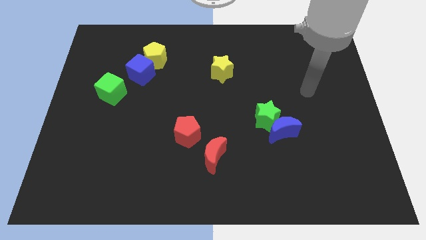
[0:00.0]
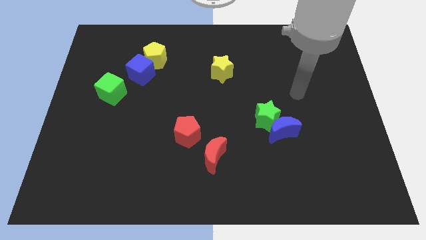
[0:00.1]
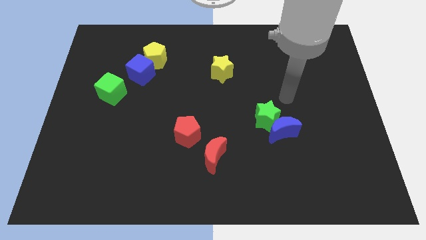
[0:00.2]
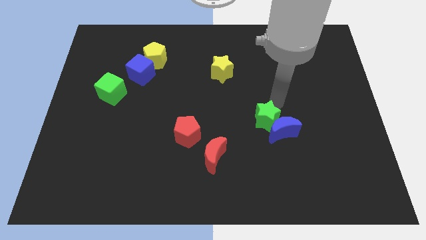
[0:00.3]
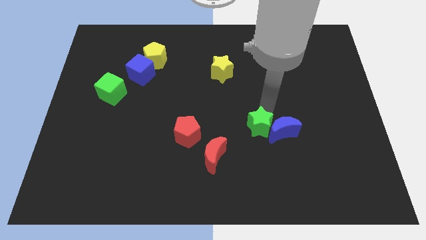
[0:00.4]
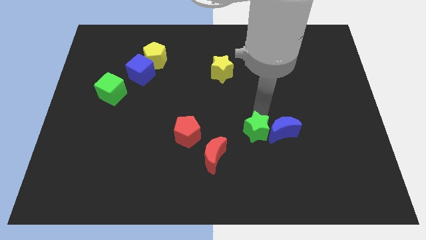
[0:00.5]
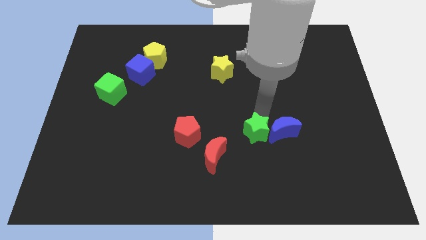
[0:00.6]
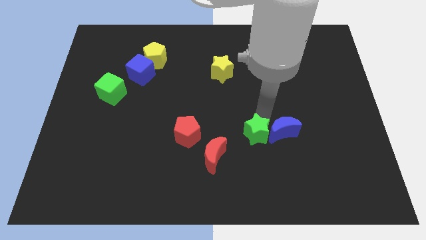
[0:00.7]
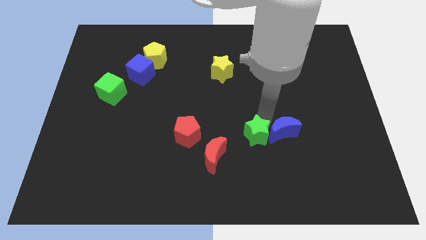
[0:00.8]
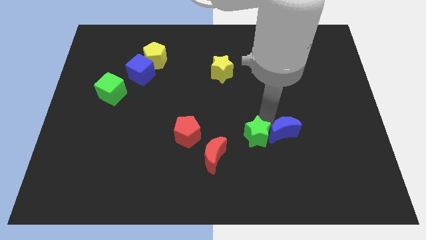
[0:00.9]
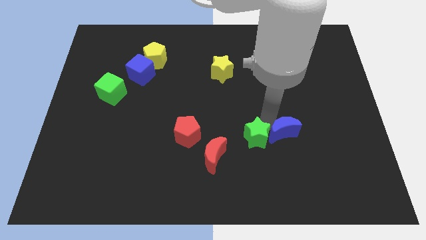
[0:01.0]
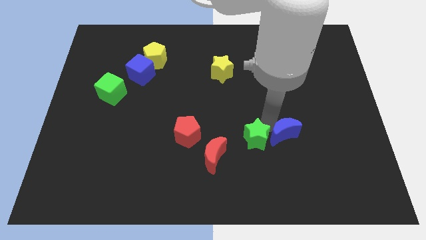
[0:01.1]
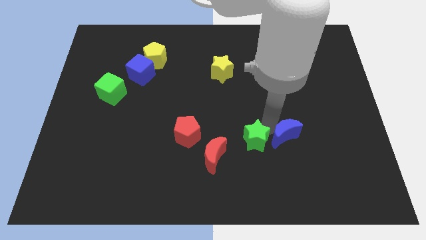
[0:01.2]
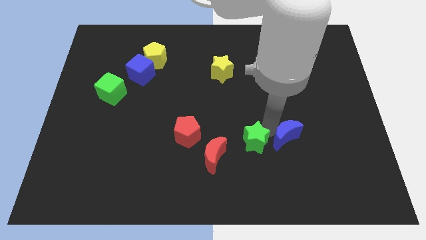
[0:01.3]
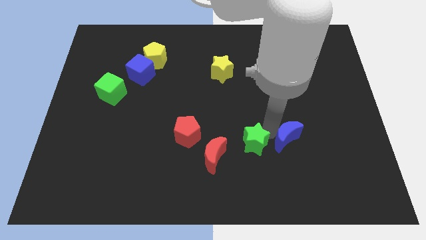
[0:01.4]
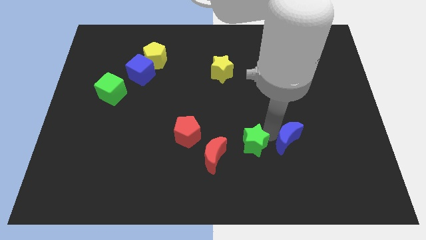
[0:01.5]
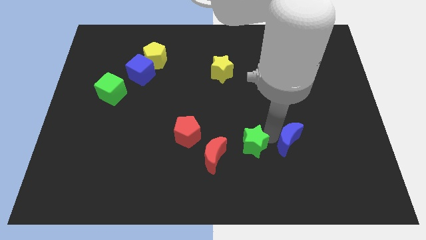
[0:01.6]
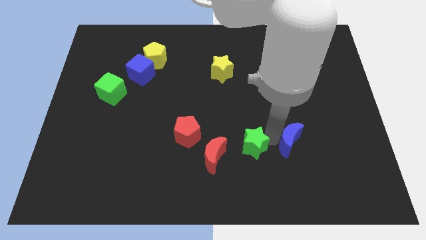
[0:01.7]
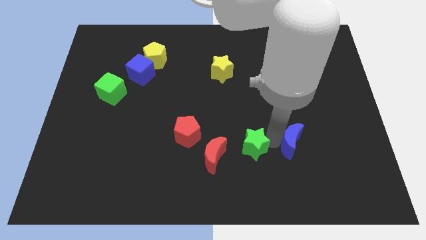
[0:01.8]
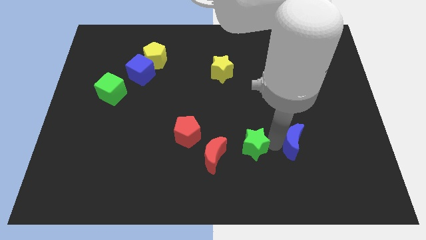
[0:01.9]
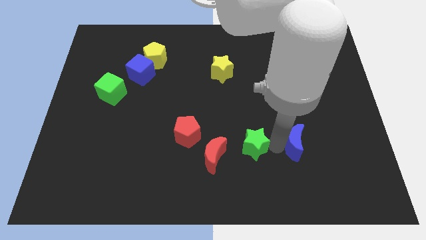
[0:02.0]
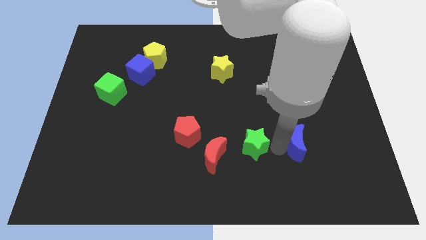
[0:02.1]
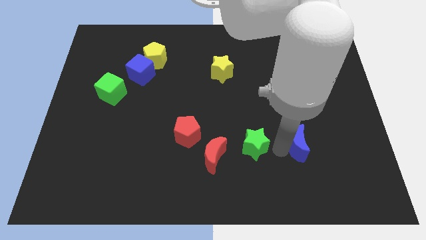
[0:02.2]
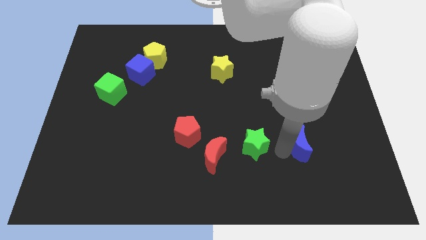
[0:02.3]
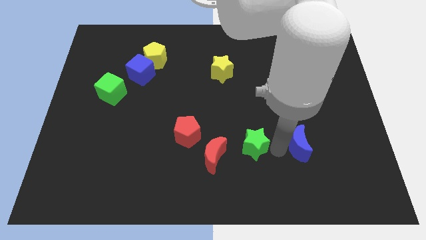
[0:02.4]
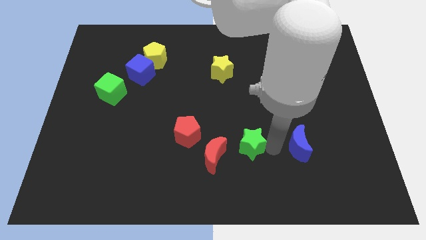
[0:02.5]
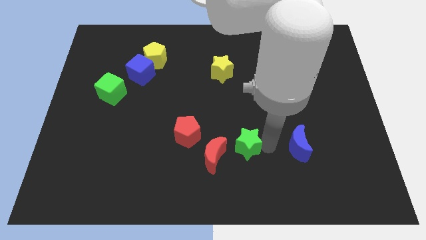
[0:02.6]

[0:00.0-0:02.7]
move the blue moon away from the green star

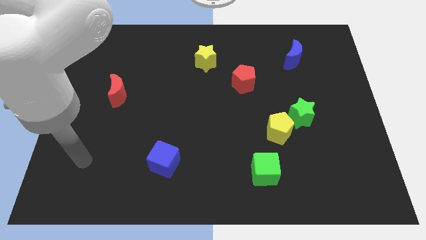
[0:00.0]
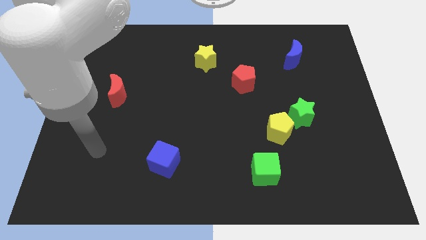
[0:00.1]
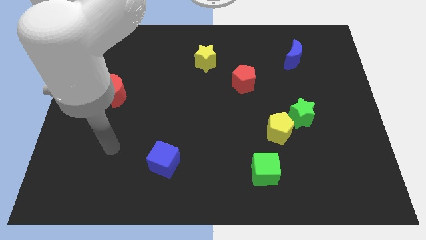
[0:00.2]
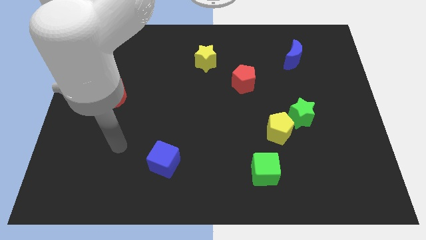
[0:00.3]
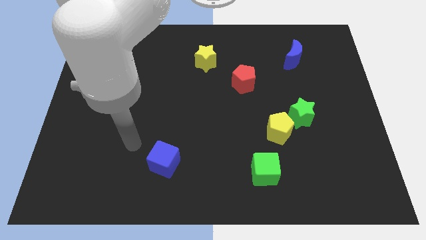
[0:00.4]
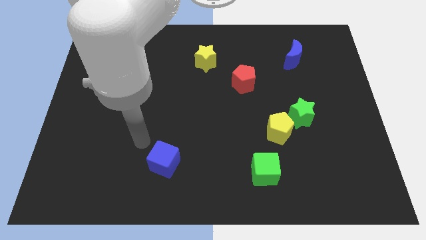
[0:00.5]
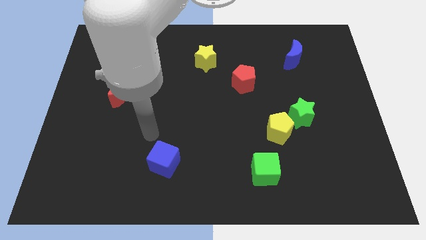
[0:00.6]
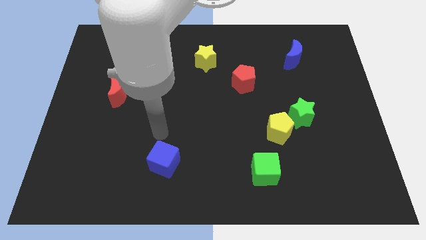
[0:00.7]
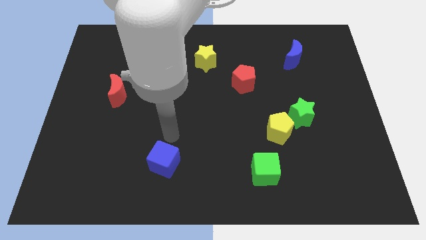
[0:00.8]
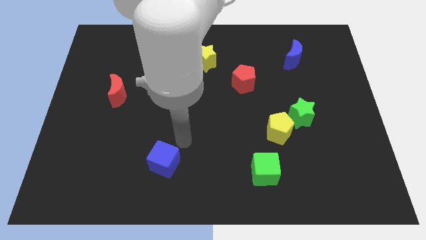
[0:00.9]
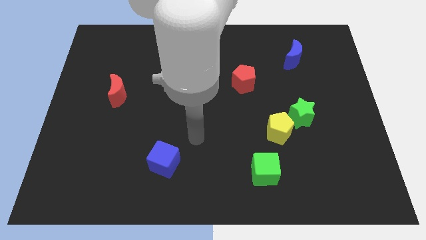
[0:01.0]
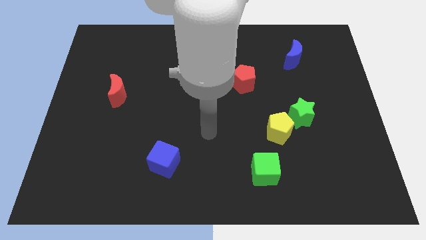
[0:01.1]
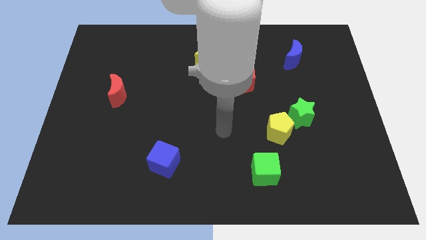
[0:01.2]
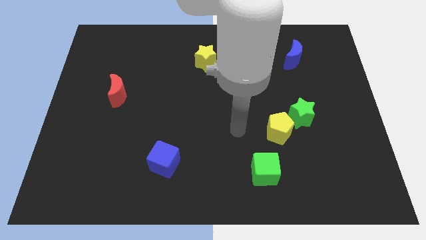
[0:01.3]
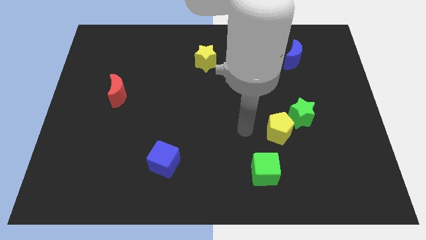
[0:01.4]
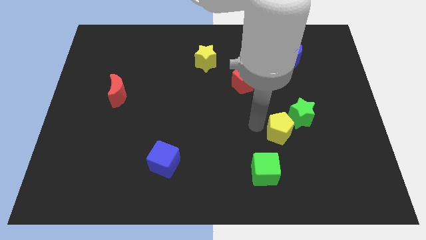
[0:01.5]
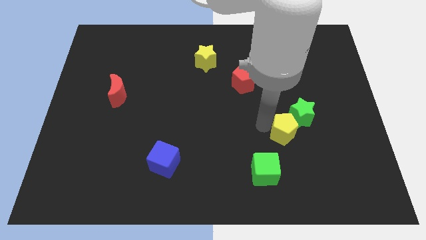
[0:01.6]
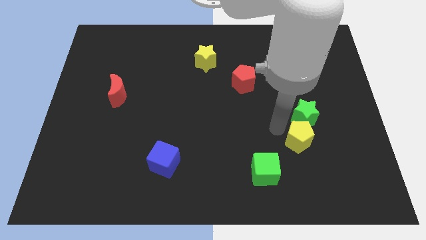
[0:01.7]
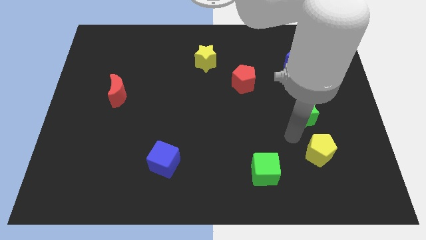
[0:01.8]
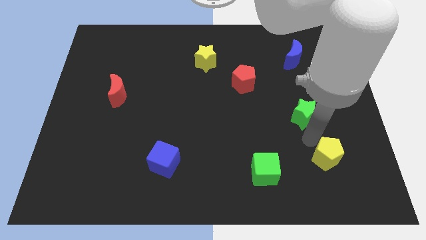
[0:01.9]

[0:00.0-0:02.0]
move the green star away from the yellow pentagon

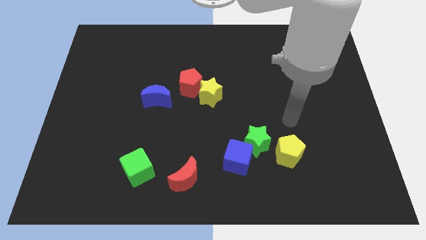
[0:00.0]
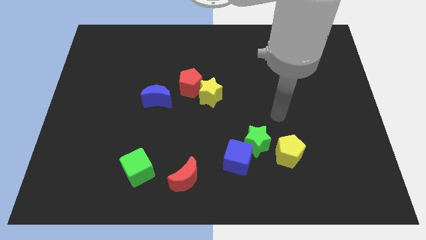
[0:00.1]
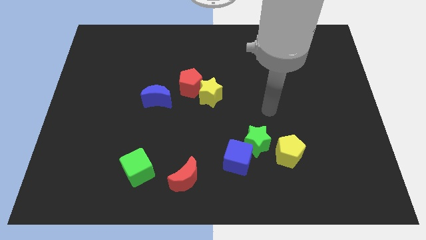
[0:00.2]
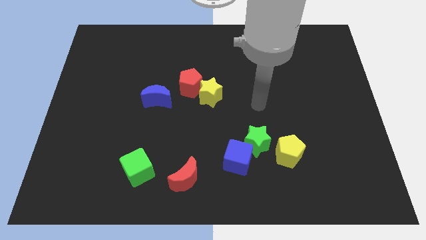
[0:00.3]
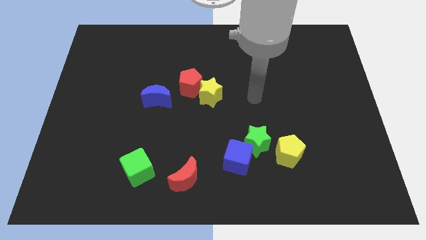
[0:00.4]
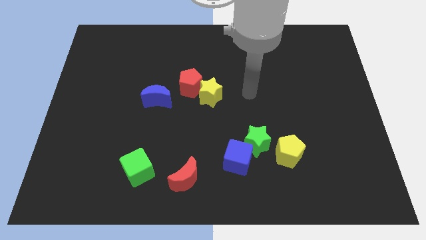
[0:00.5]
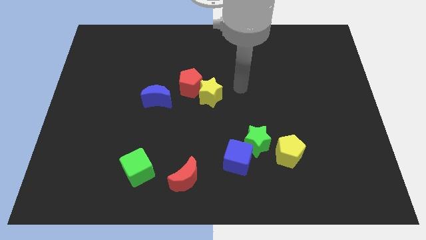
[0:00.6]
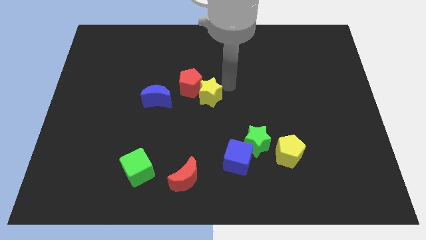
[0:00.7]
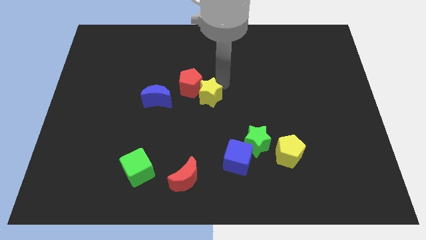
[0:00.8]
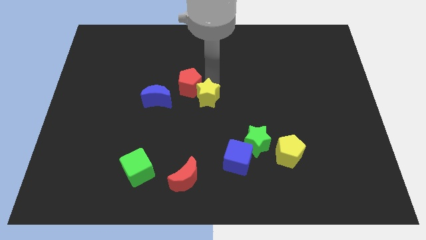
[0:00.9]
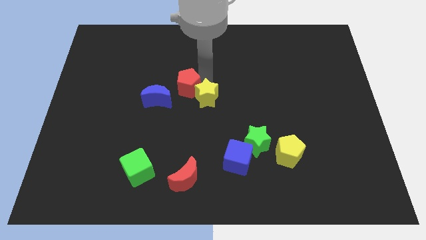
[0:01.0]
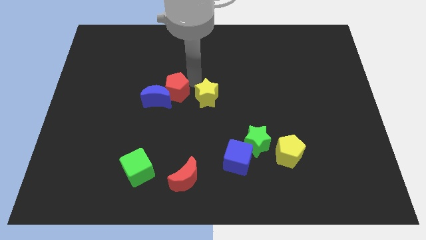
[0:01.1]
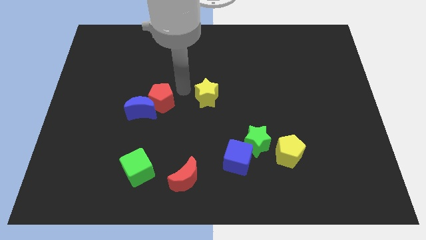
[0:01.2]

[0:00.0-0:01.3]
pull the yellow star apart from the red pentagon

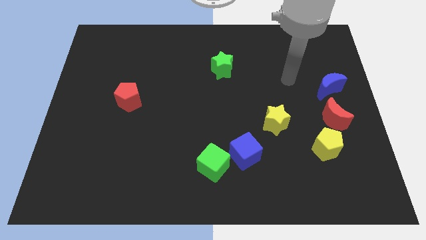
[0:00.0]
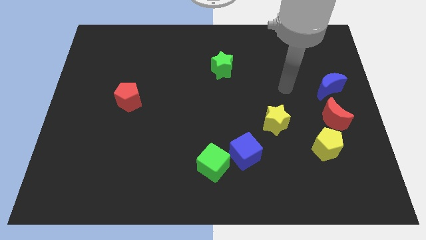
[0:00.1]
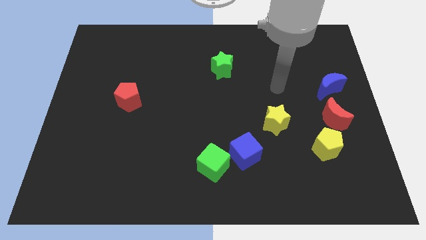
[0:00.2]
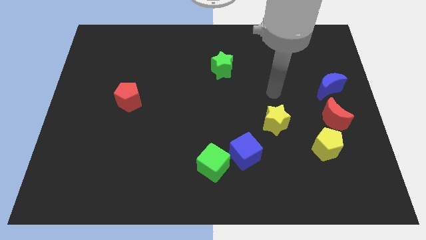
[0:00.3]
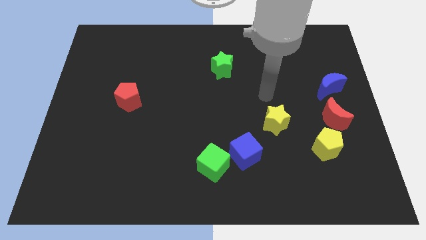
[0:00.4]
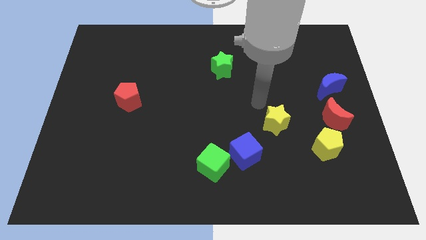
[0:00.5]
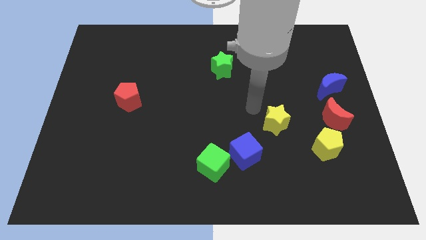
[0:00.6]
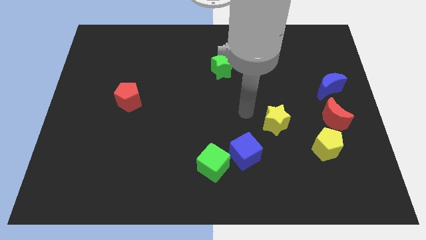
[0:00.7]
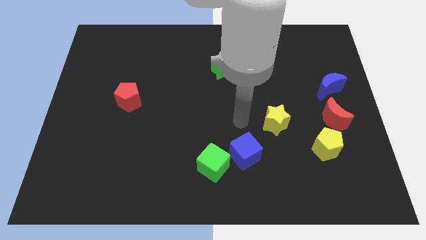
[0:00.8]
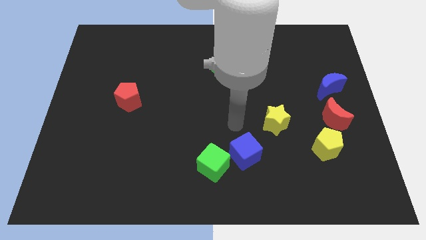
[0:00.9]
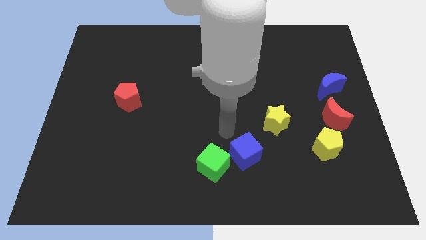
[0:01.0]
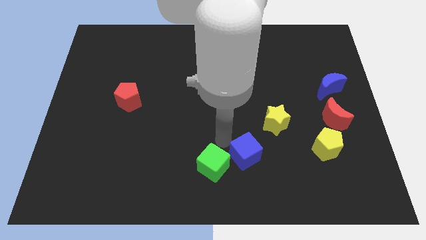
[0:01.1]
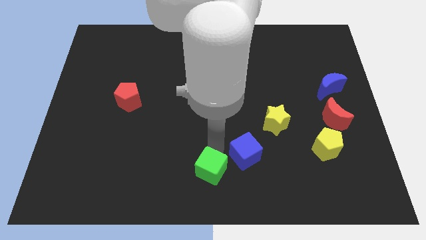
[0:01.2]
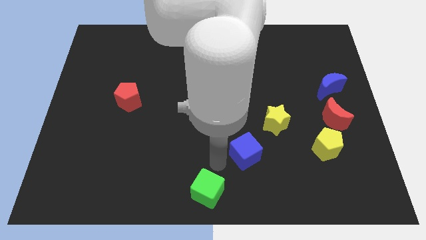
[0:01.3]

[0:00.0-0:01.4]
move the blue cube away from the green cube

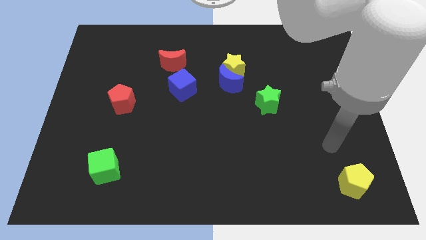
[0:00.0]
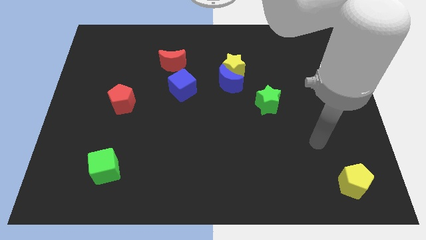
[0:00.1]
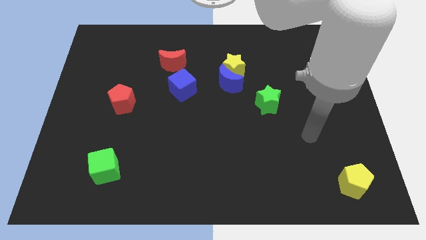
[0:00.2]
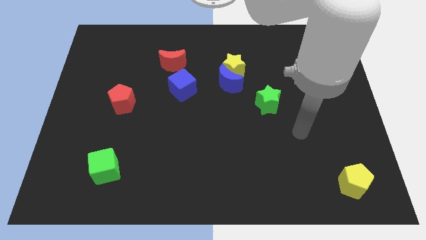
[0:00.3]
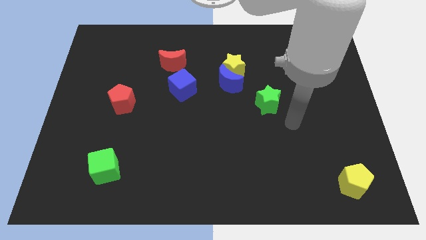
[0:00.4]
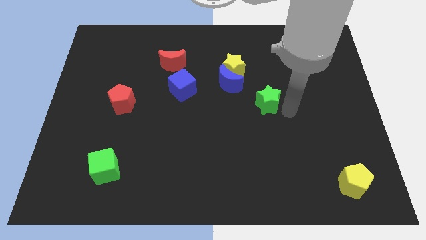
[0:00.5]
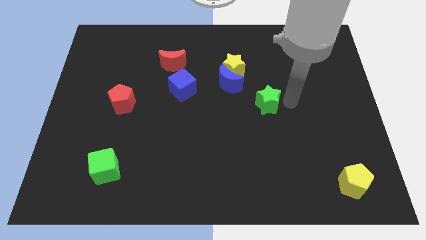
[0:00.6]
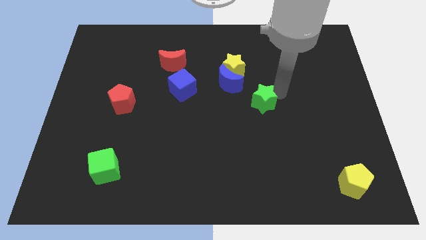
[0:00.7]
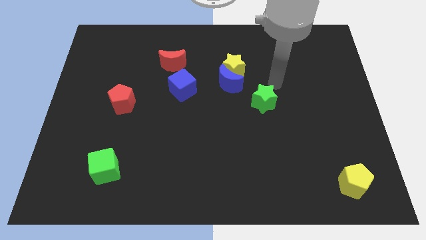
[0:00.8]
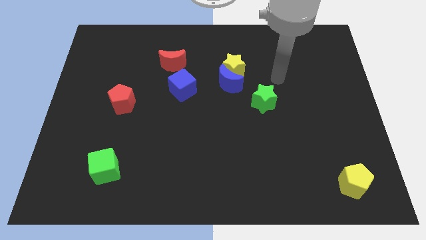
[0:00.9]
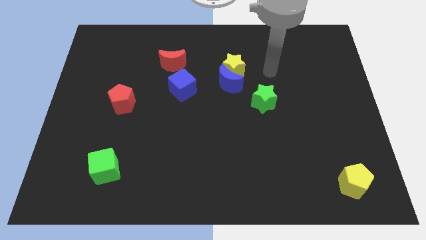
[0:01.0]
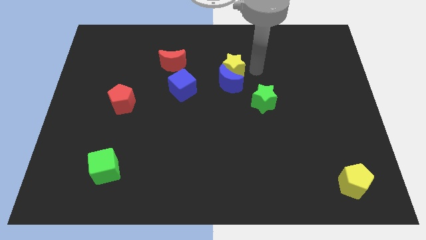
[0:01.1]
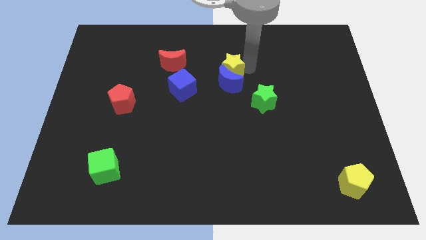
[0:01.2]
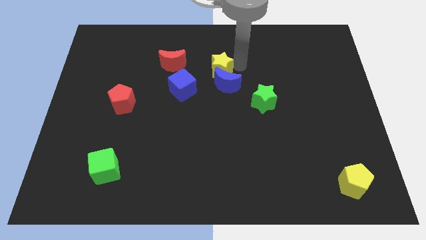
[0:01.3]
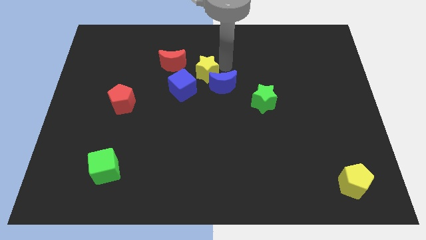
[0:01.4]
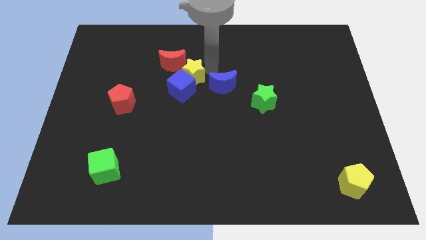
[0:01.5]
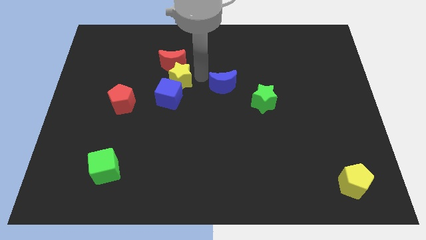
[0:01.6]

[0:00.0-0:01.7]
separate the blue moon from the yellow star

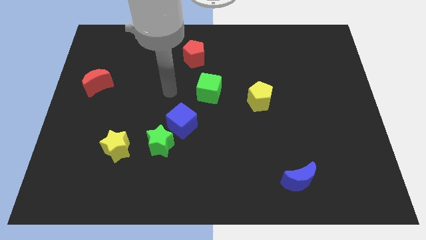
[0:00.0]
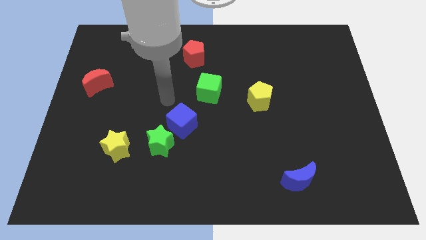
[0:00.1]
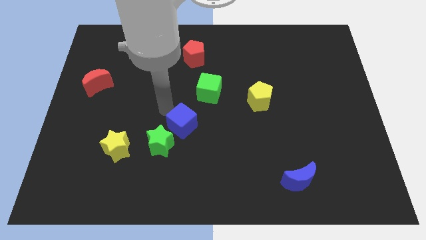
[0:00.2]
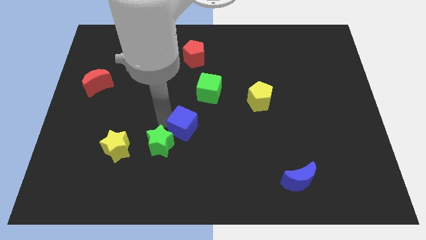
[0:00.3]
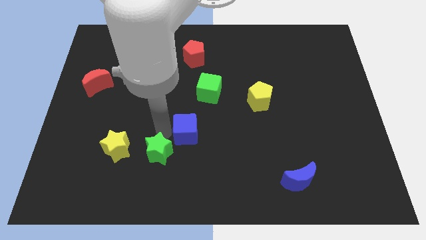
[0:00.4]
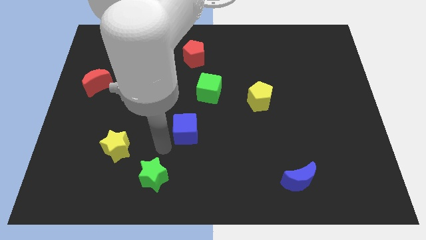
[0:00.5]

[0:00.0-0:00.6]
move the blue cube away from the green star
